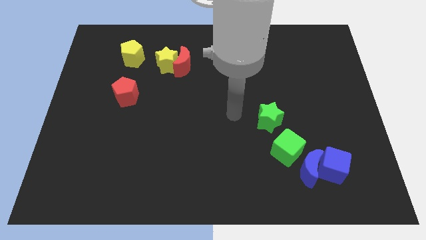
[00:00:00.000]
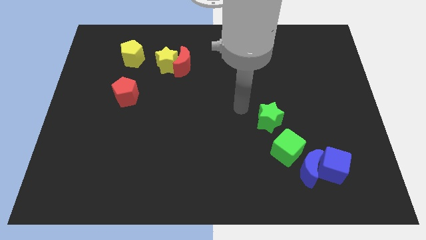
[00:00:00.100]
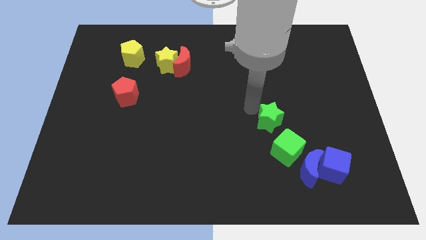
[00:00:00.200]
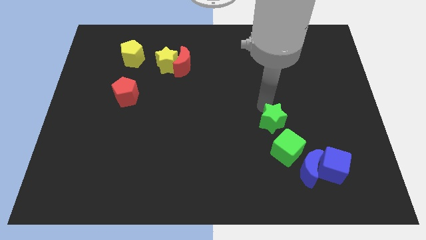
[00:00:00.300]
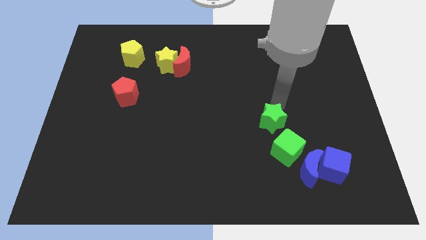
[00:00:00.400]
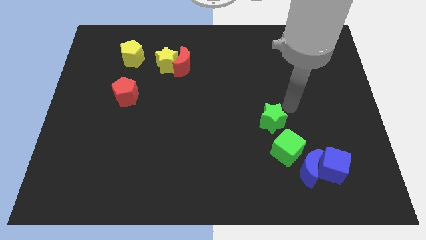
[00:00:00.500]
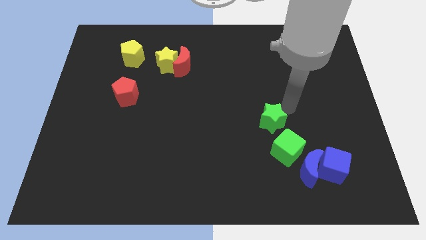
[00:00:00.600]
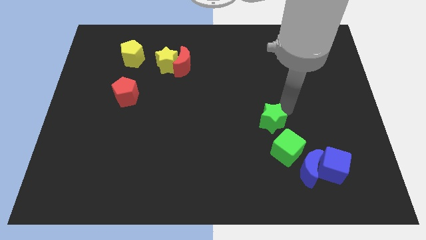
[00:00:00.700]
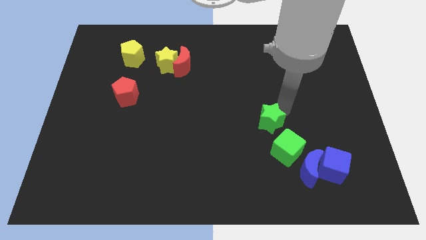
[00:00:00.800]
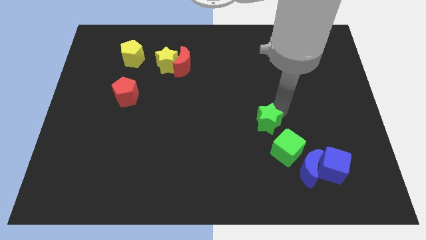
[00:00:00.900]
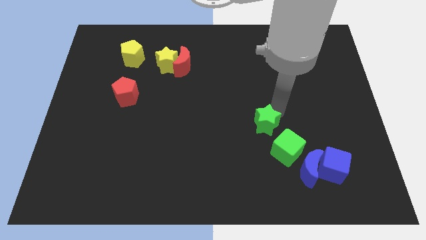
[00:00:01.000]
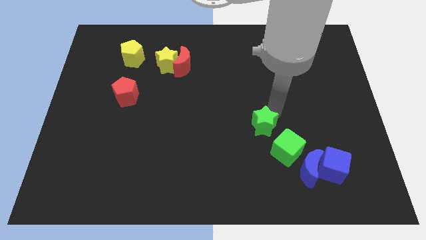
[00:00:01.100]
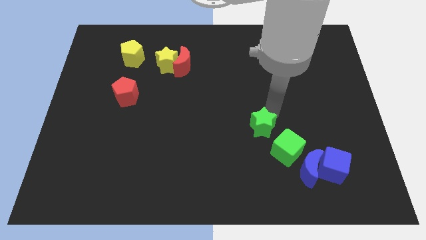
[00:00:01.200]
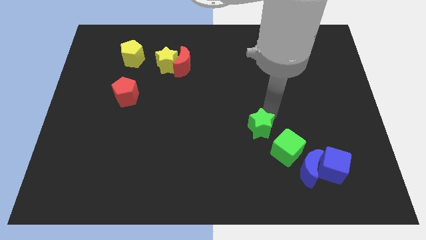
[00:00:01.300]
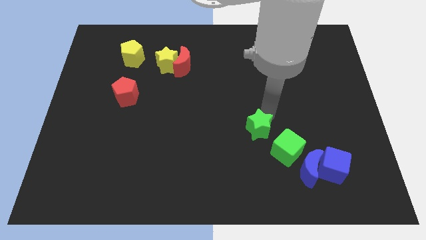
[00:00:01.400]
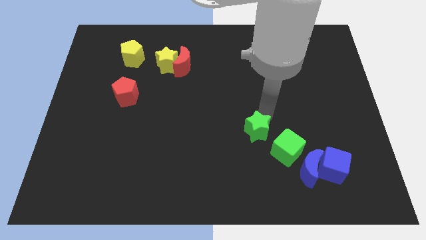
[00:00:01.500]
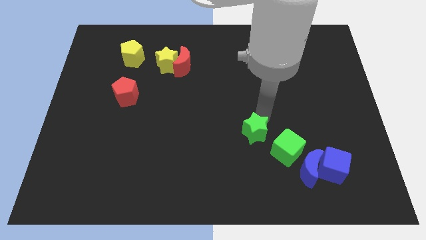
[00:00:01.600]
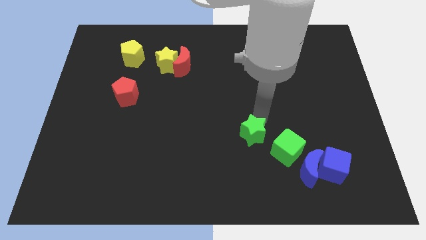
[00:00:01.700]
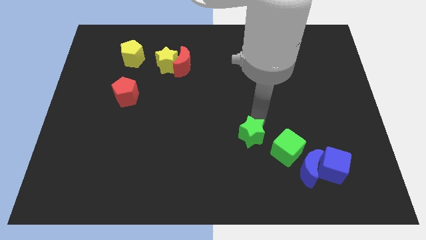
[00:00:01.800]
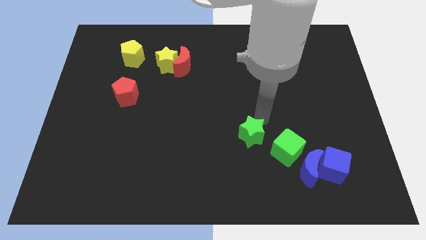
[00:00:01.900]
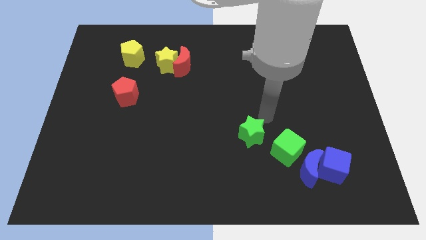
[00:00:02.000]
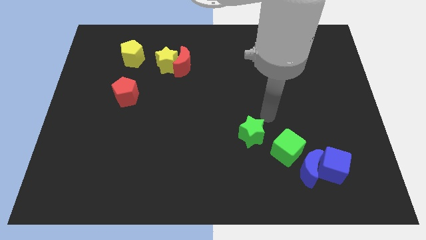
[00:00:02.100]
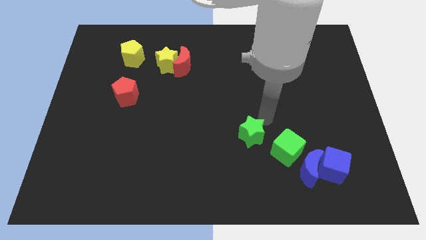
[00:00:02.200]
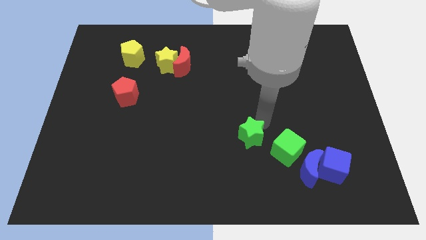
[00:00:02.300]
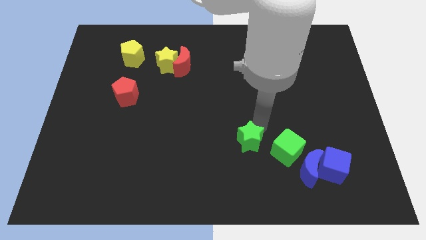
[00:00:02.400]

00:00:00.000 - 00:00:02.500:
slide the green star a little bit diagonally down and left

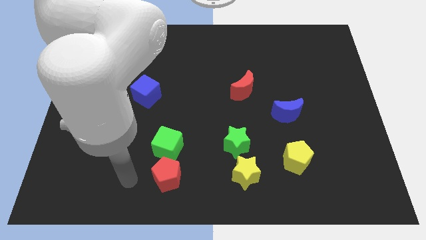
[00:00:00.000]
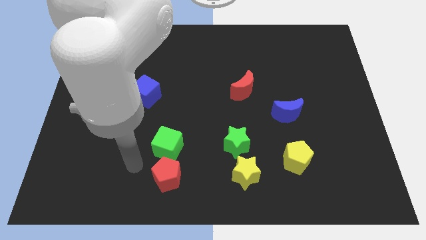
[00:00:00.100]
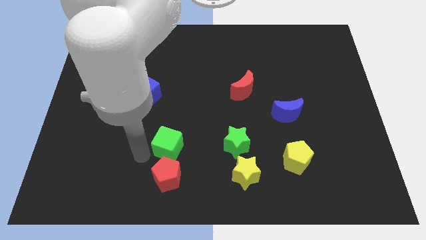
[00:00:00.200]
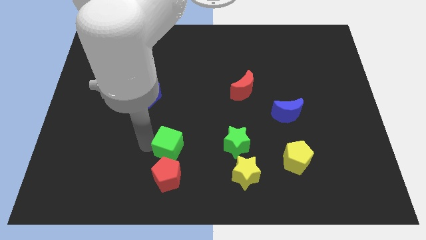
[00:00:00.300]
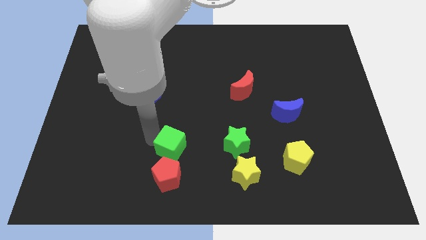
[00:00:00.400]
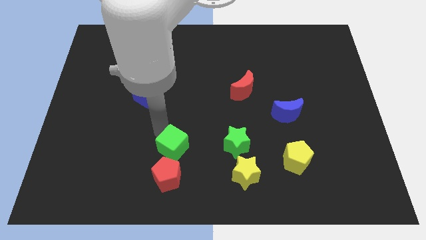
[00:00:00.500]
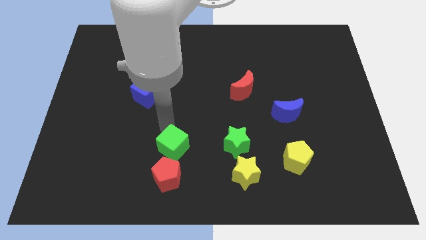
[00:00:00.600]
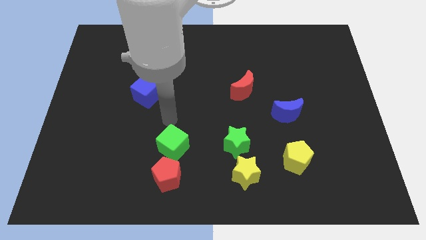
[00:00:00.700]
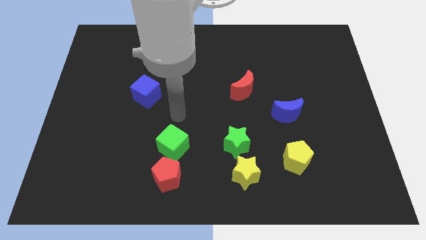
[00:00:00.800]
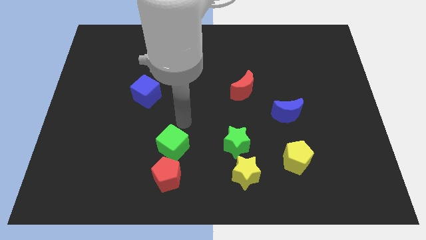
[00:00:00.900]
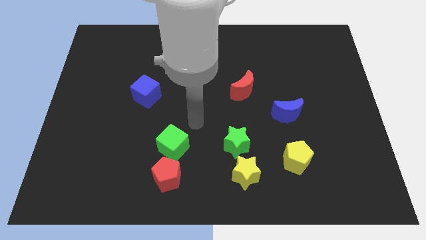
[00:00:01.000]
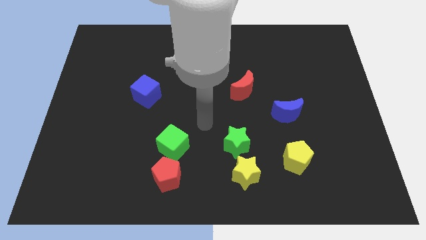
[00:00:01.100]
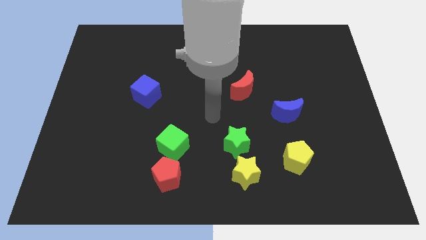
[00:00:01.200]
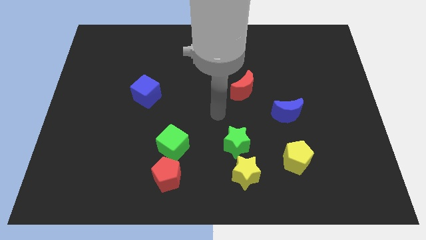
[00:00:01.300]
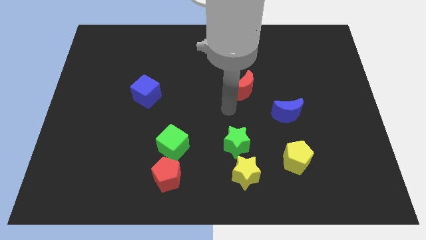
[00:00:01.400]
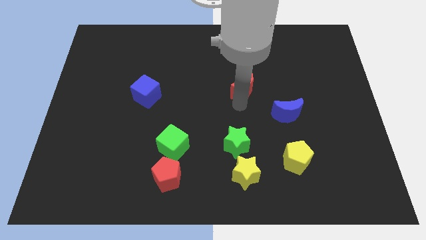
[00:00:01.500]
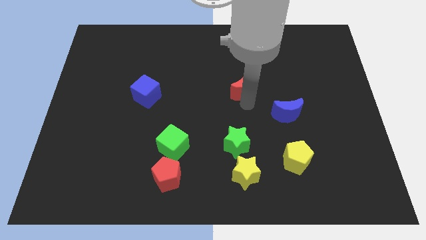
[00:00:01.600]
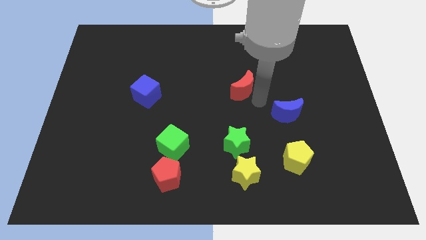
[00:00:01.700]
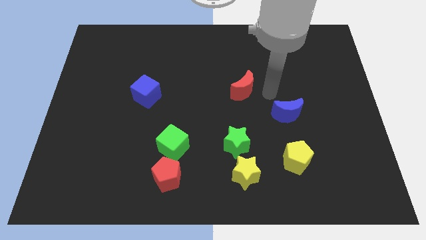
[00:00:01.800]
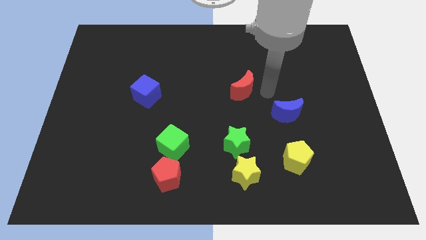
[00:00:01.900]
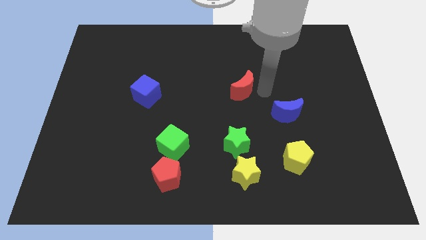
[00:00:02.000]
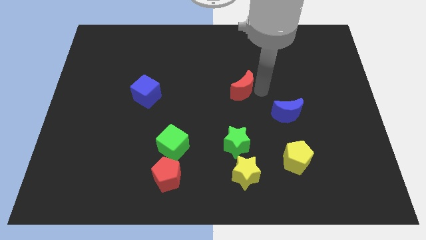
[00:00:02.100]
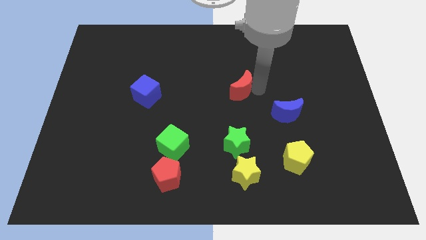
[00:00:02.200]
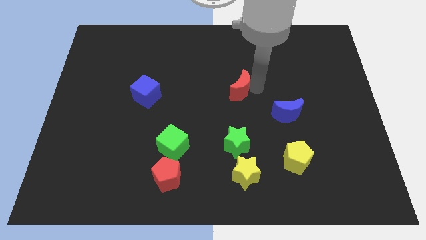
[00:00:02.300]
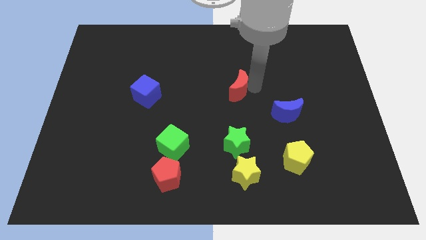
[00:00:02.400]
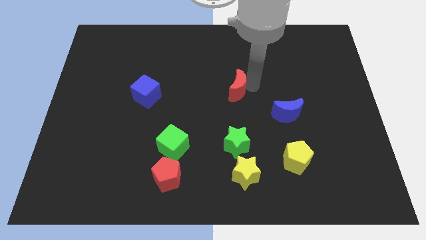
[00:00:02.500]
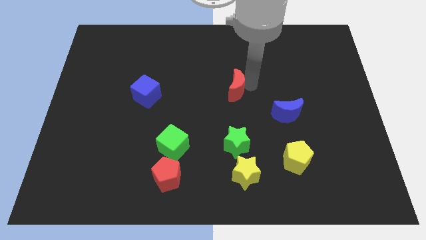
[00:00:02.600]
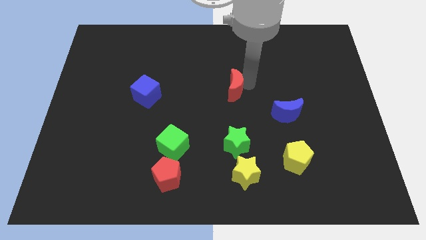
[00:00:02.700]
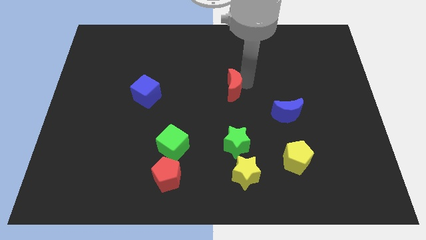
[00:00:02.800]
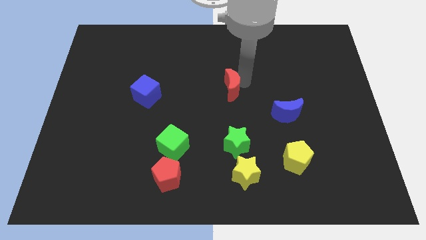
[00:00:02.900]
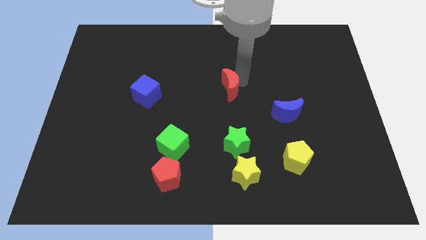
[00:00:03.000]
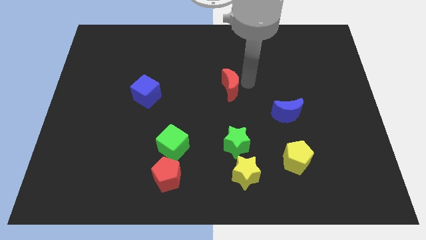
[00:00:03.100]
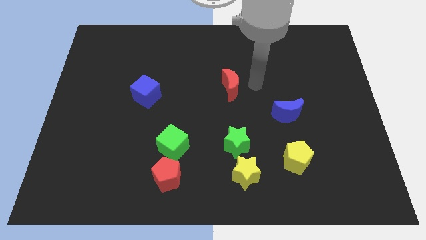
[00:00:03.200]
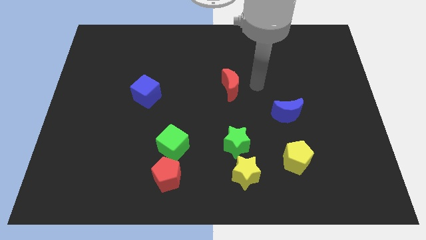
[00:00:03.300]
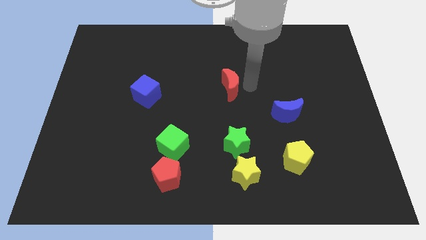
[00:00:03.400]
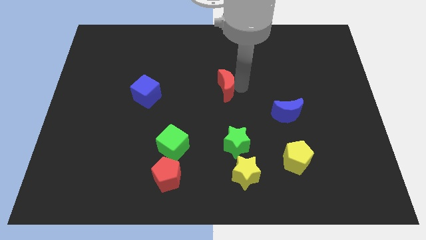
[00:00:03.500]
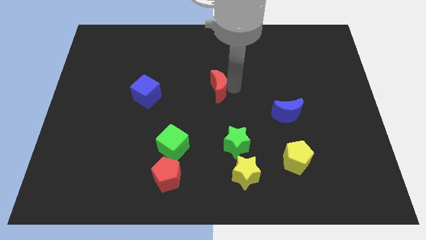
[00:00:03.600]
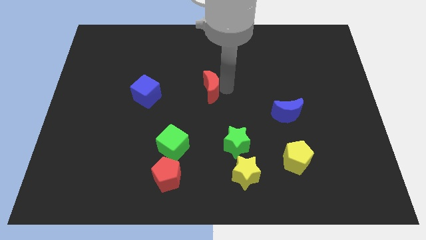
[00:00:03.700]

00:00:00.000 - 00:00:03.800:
slide the red moon somewhat left

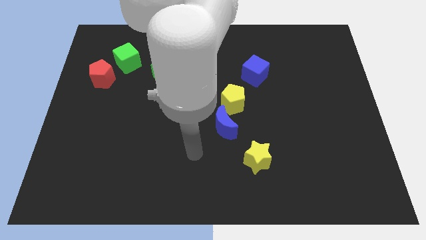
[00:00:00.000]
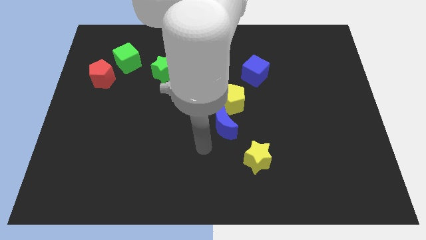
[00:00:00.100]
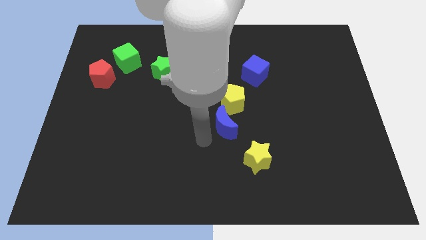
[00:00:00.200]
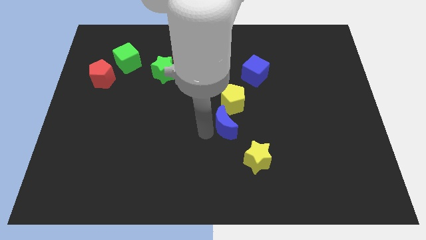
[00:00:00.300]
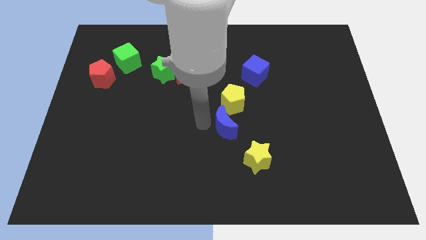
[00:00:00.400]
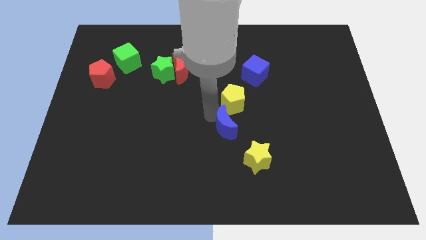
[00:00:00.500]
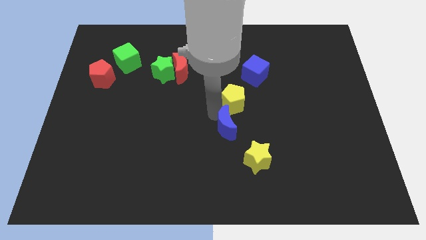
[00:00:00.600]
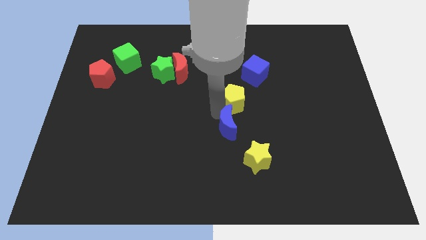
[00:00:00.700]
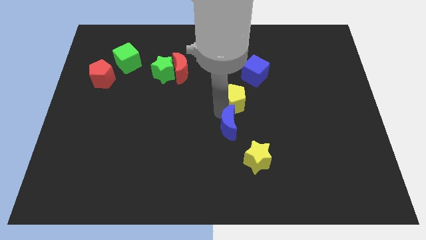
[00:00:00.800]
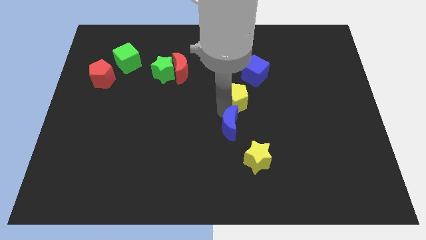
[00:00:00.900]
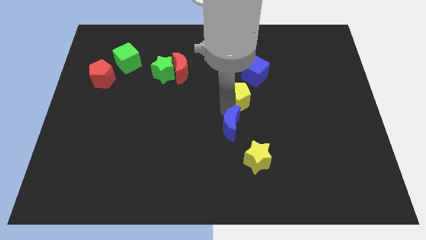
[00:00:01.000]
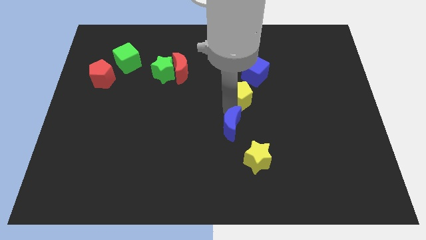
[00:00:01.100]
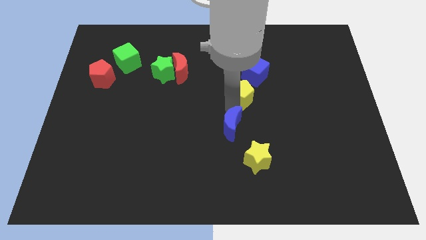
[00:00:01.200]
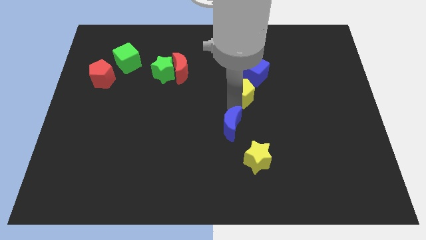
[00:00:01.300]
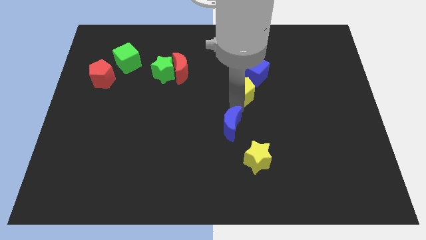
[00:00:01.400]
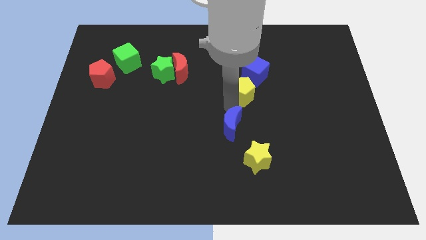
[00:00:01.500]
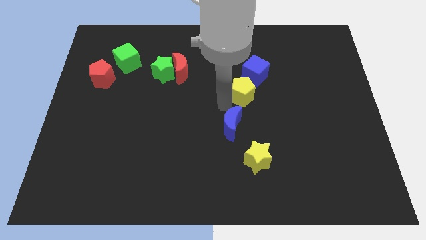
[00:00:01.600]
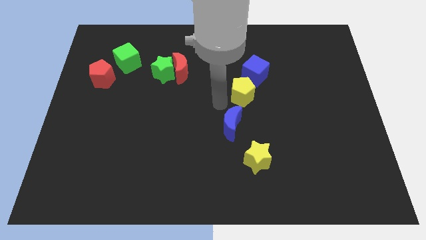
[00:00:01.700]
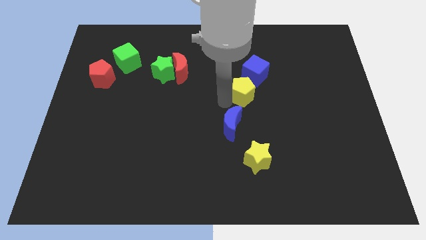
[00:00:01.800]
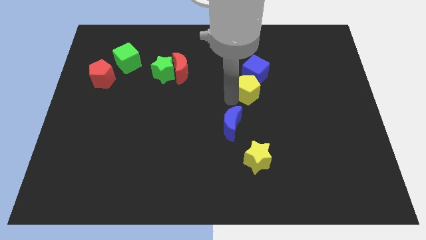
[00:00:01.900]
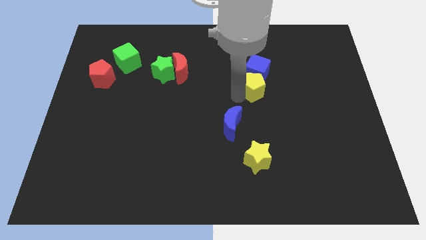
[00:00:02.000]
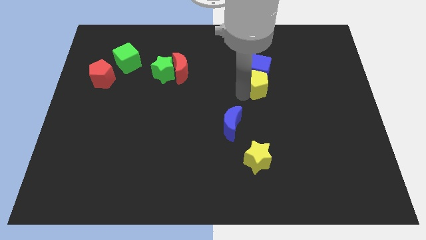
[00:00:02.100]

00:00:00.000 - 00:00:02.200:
push the yellow pentagon upwards and then to the right slightly
